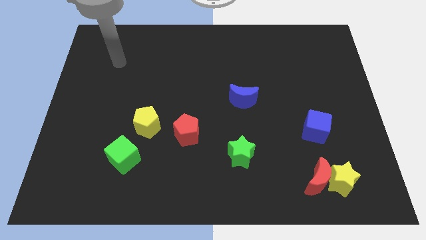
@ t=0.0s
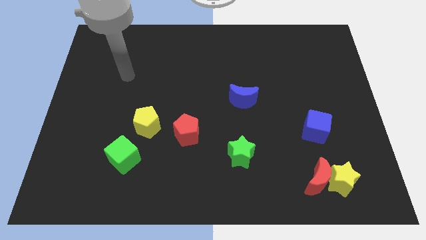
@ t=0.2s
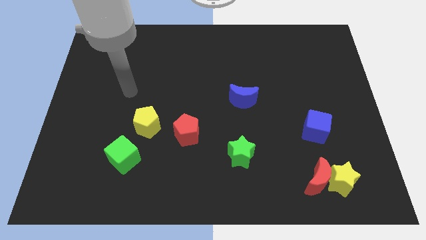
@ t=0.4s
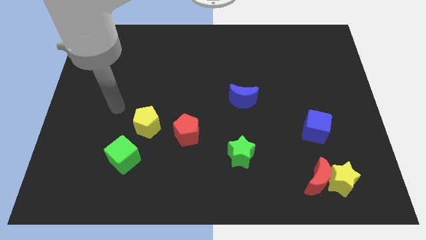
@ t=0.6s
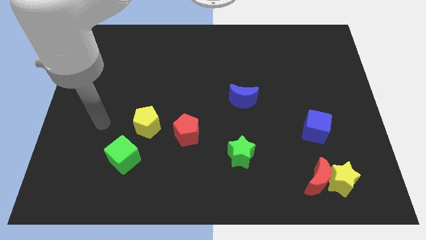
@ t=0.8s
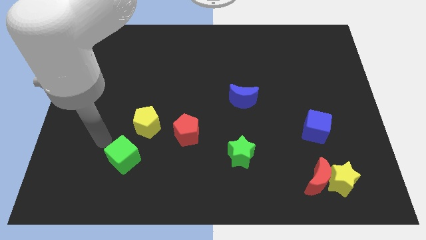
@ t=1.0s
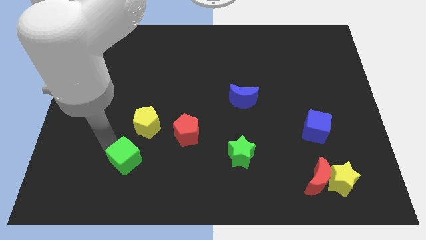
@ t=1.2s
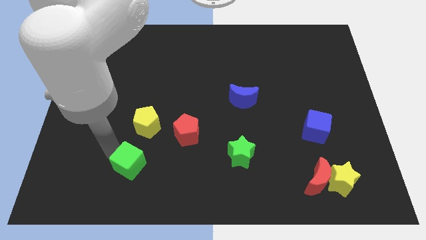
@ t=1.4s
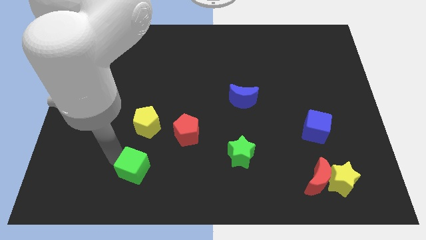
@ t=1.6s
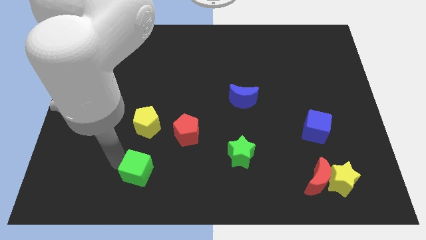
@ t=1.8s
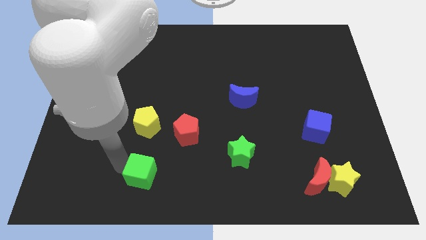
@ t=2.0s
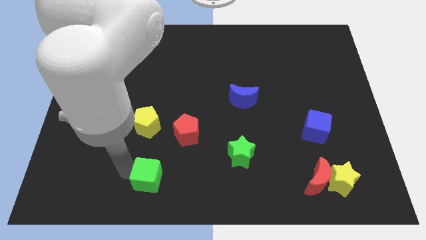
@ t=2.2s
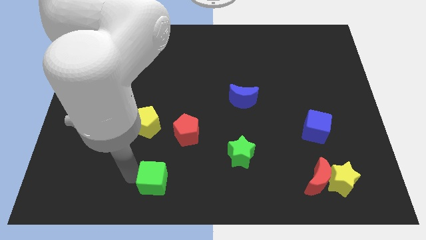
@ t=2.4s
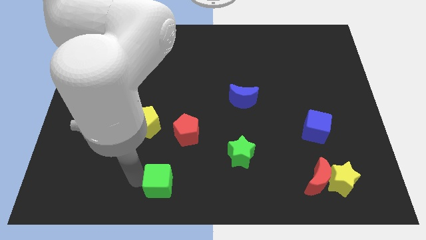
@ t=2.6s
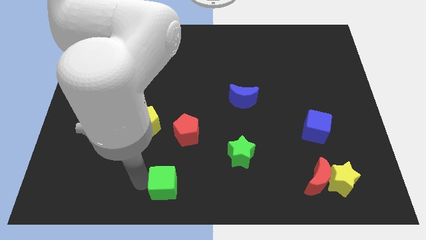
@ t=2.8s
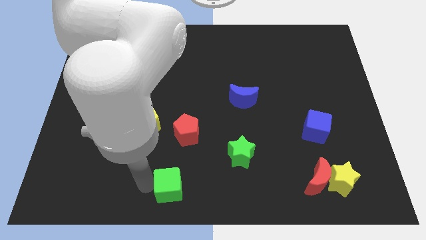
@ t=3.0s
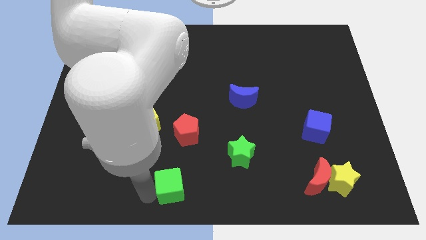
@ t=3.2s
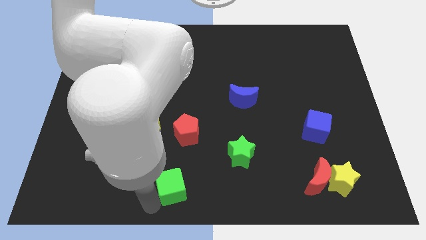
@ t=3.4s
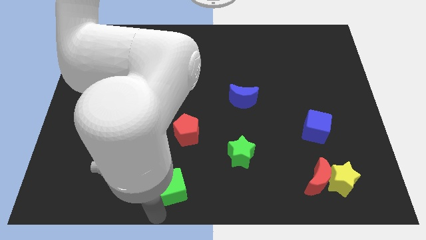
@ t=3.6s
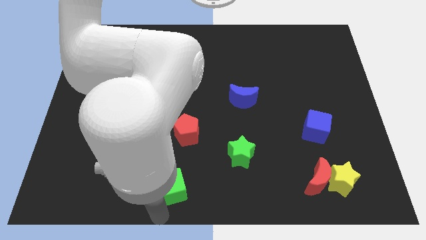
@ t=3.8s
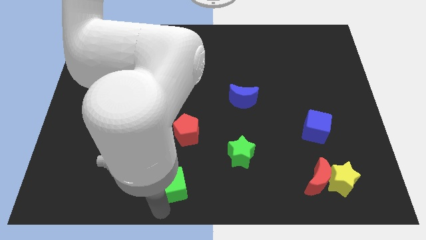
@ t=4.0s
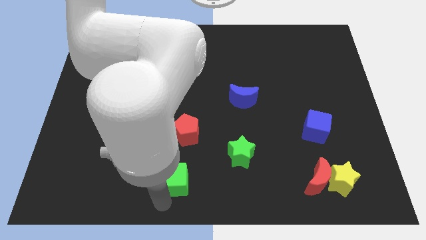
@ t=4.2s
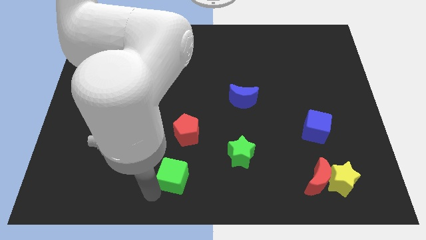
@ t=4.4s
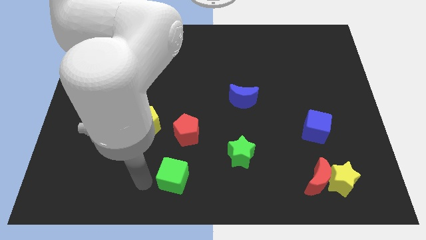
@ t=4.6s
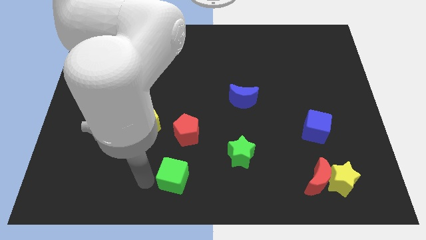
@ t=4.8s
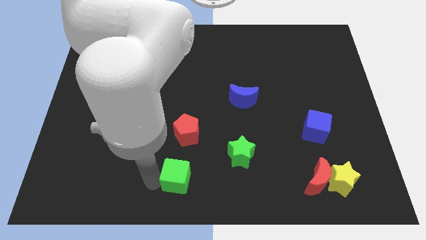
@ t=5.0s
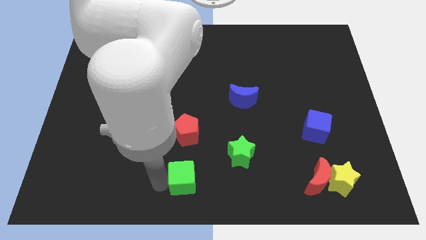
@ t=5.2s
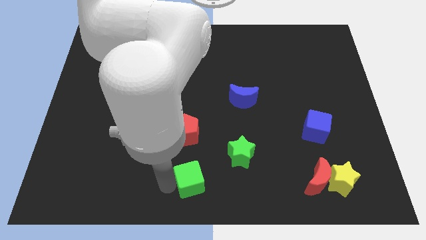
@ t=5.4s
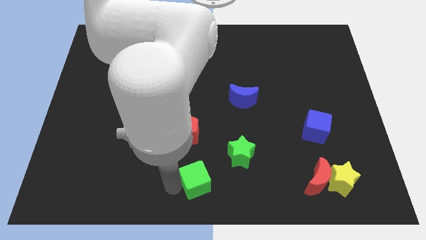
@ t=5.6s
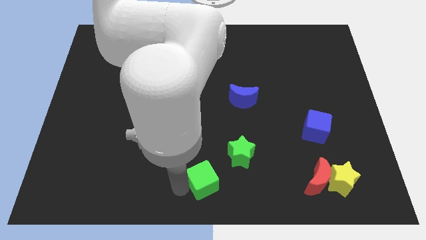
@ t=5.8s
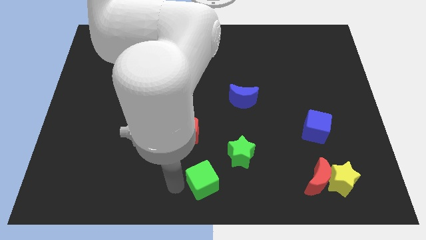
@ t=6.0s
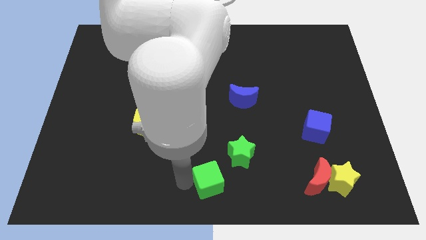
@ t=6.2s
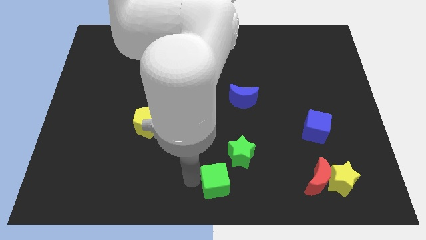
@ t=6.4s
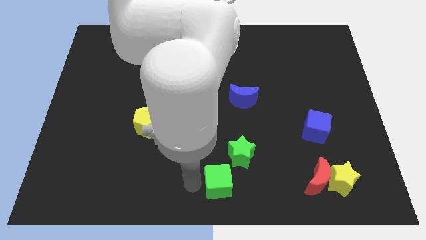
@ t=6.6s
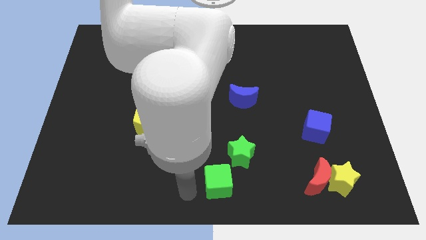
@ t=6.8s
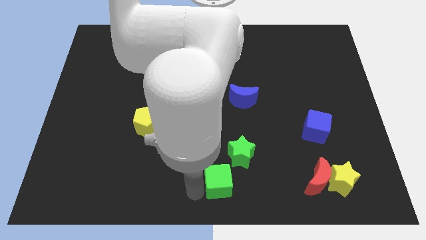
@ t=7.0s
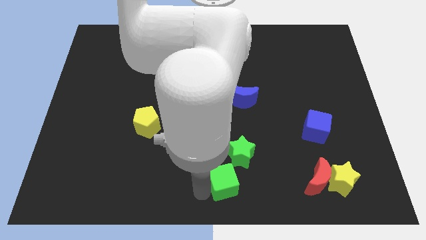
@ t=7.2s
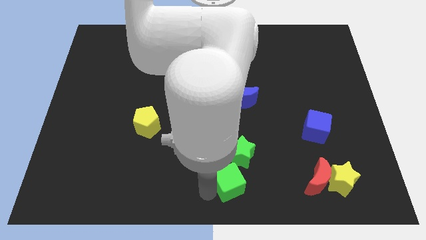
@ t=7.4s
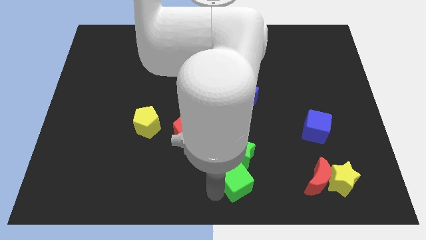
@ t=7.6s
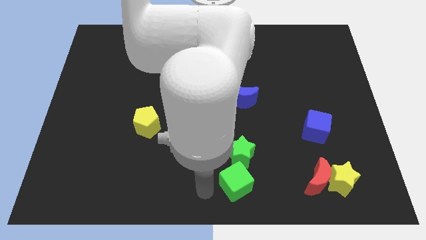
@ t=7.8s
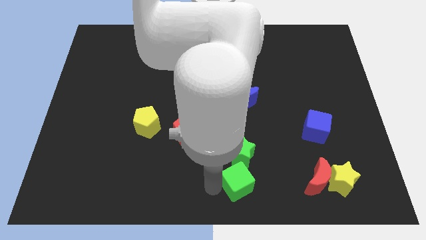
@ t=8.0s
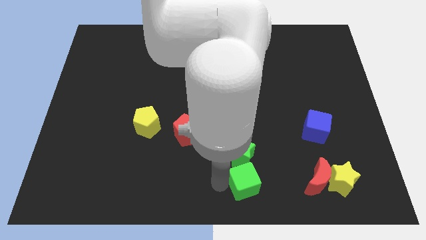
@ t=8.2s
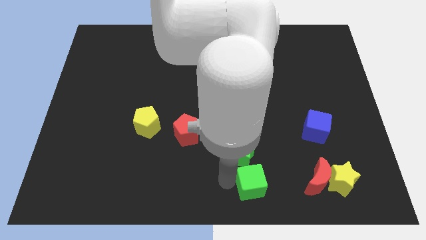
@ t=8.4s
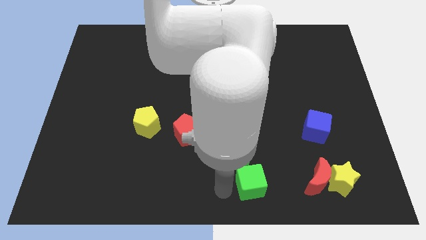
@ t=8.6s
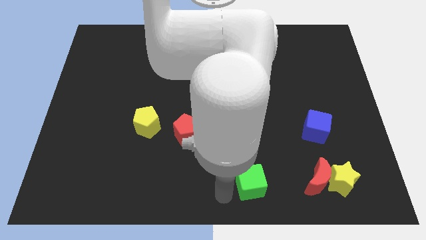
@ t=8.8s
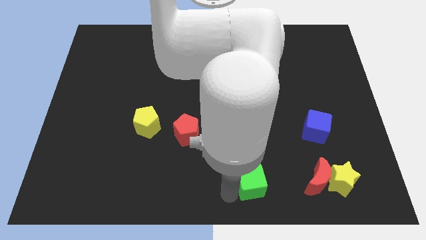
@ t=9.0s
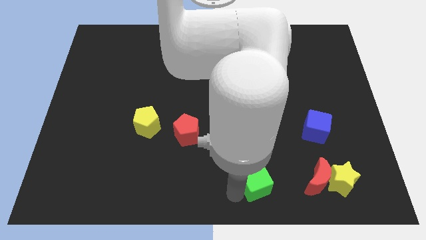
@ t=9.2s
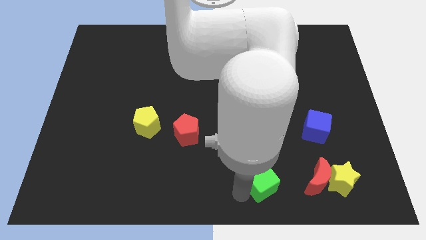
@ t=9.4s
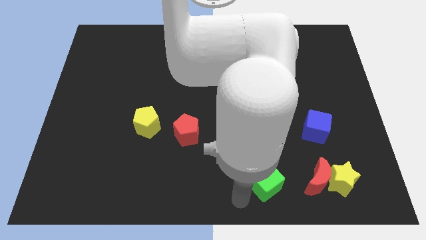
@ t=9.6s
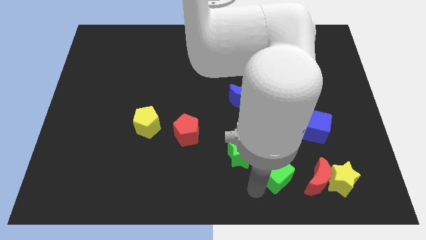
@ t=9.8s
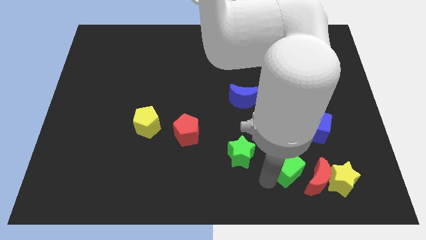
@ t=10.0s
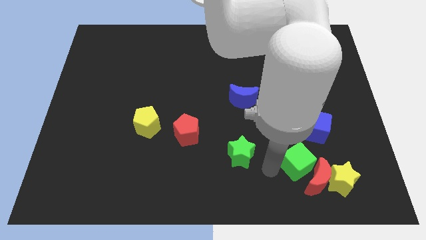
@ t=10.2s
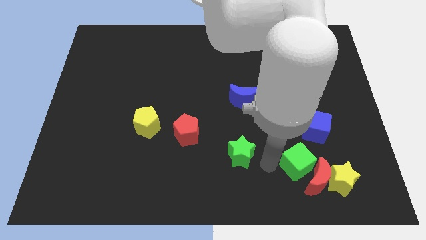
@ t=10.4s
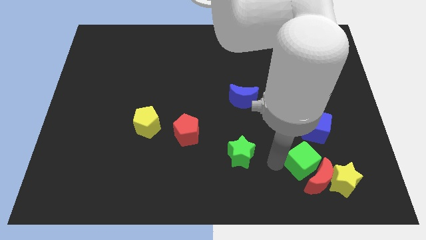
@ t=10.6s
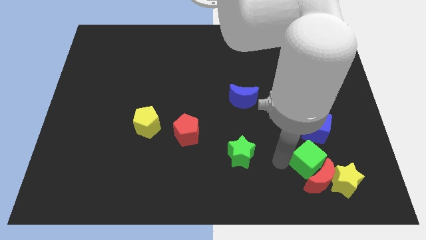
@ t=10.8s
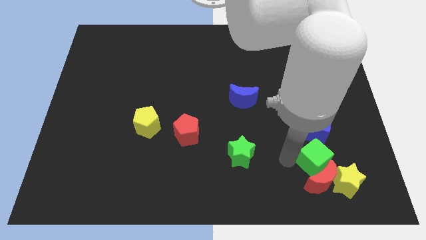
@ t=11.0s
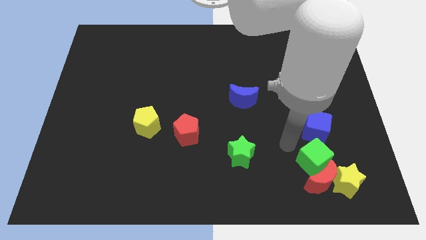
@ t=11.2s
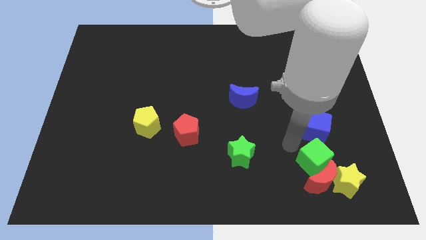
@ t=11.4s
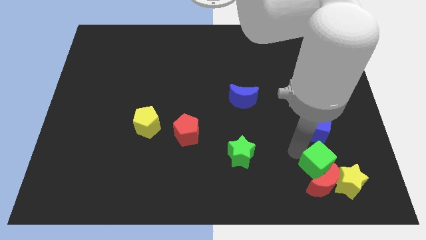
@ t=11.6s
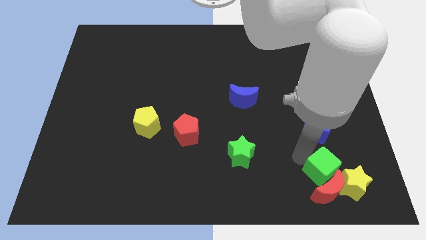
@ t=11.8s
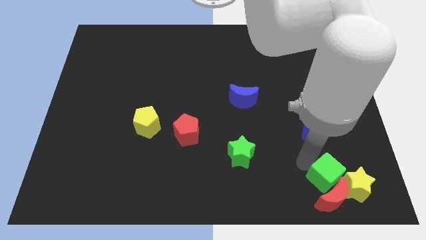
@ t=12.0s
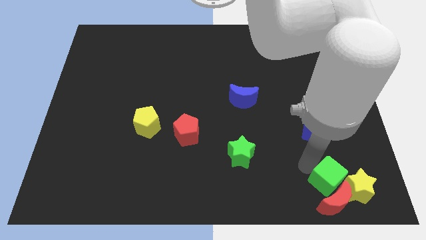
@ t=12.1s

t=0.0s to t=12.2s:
move the green cube next to the yellow star

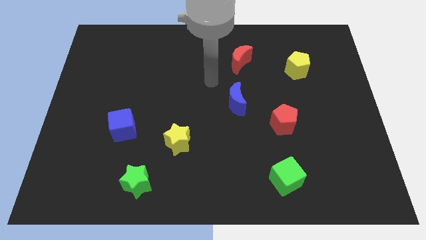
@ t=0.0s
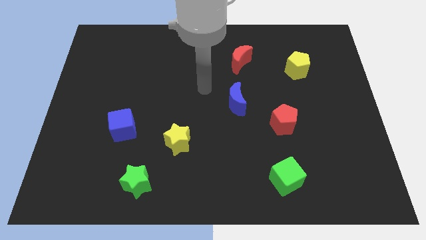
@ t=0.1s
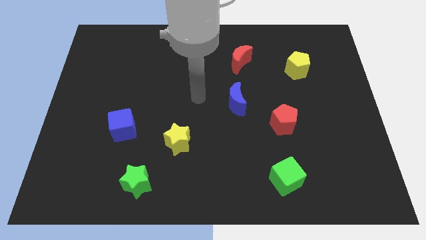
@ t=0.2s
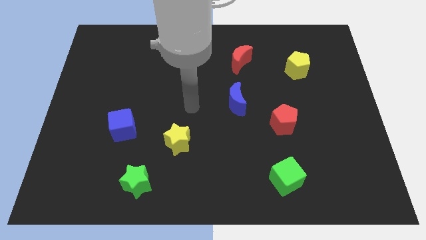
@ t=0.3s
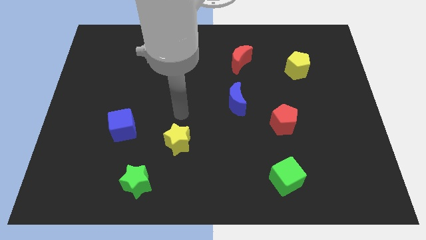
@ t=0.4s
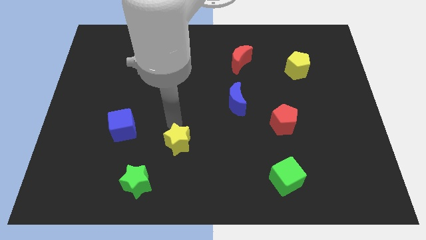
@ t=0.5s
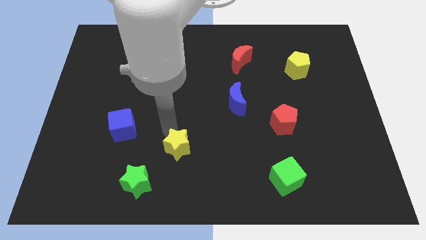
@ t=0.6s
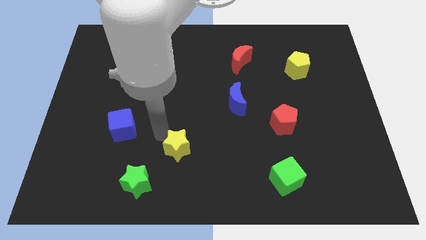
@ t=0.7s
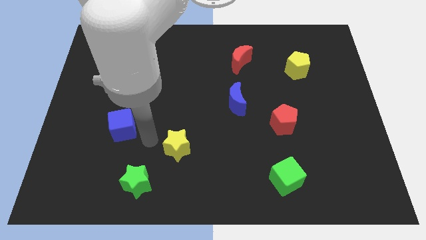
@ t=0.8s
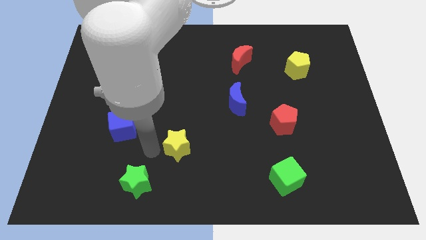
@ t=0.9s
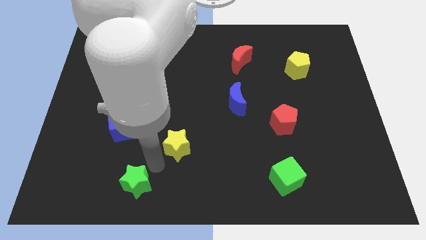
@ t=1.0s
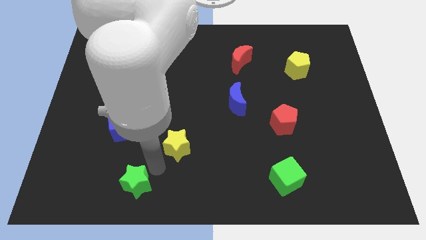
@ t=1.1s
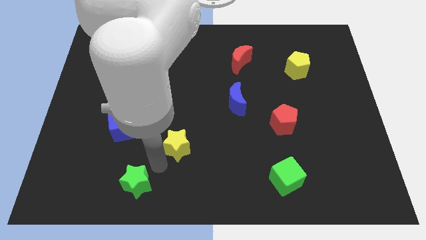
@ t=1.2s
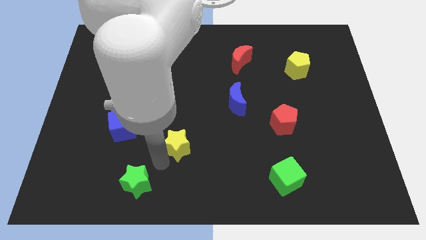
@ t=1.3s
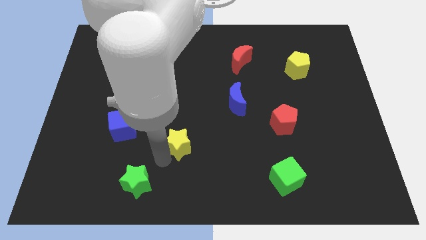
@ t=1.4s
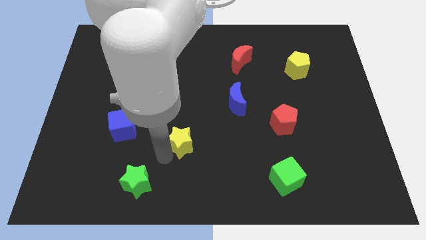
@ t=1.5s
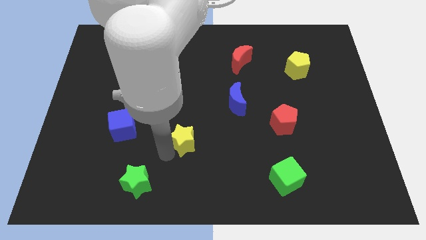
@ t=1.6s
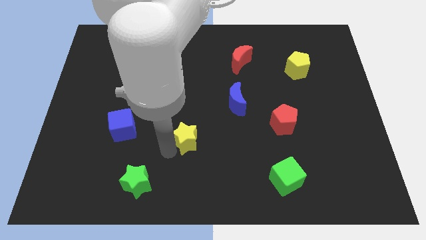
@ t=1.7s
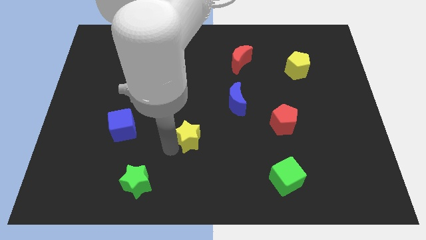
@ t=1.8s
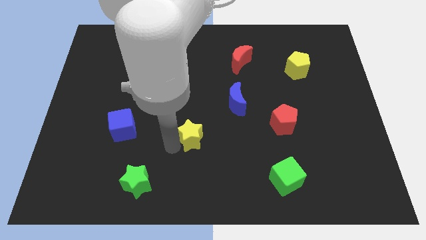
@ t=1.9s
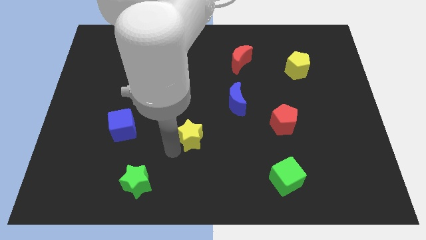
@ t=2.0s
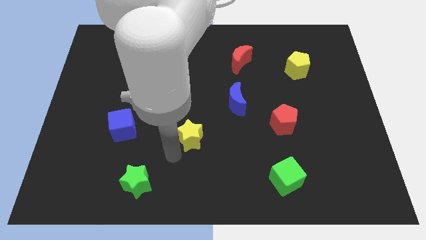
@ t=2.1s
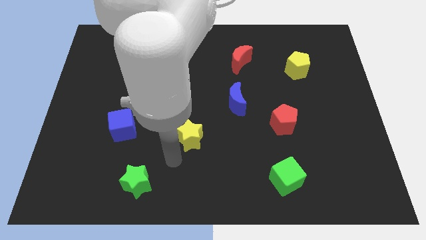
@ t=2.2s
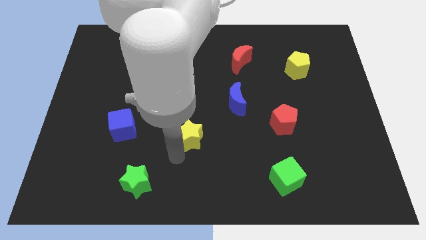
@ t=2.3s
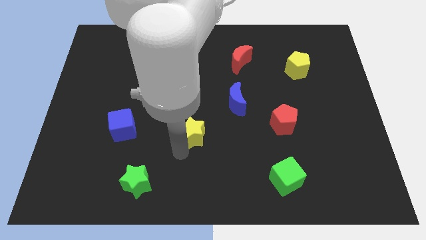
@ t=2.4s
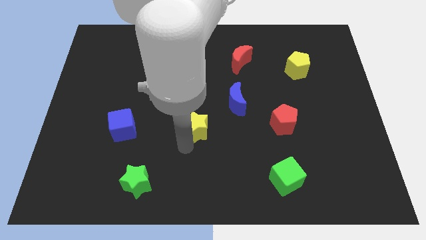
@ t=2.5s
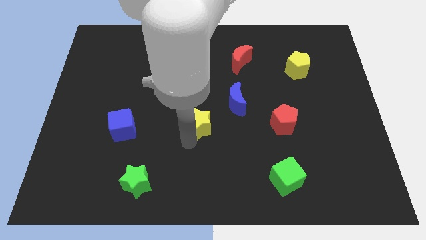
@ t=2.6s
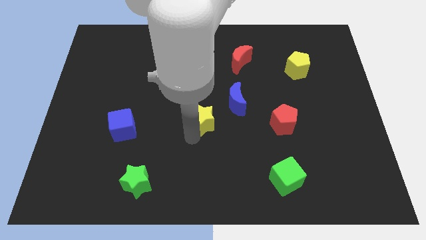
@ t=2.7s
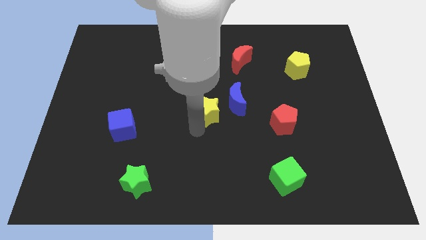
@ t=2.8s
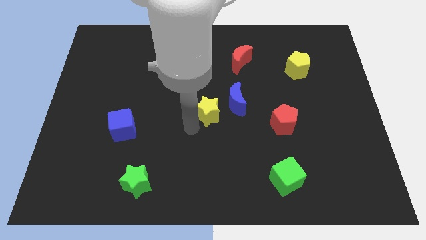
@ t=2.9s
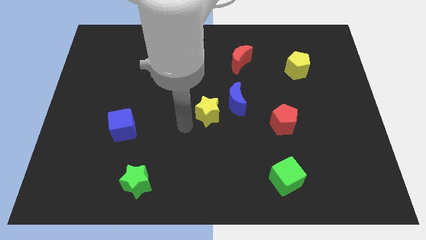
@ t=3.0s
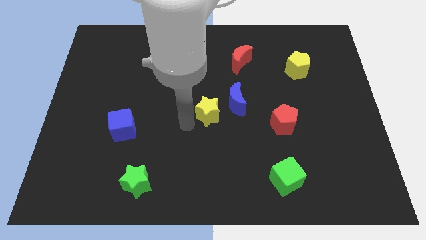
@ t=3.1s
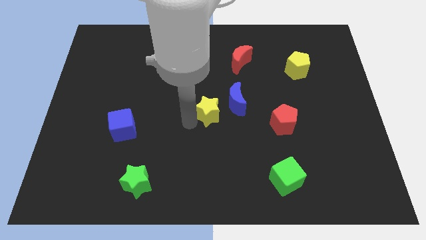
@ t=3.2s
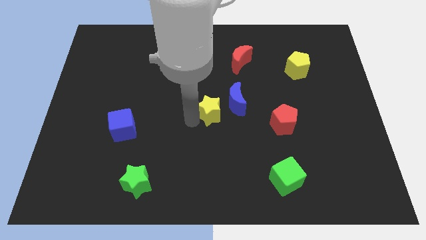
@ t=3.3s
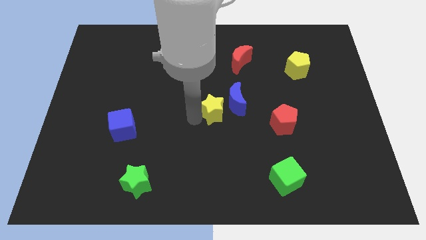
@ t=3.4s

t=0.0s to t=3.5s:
move the yellow star towards the blue moon
